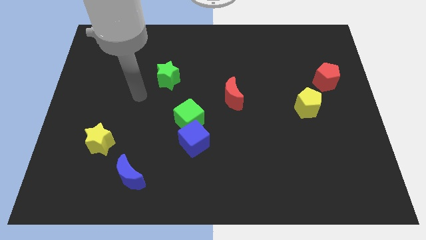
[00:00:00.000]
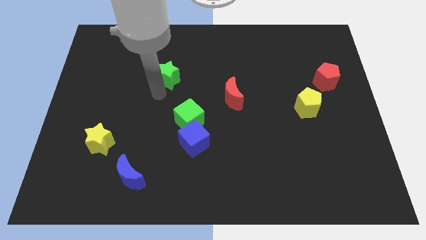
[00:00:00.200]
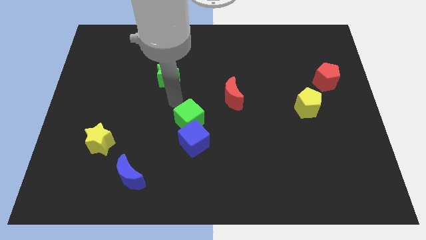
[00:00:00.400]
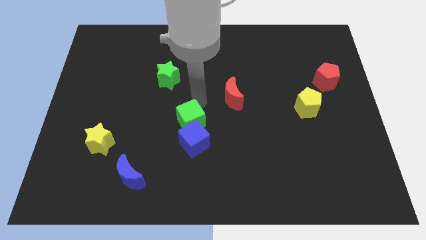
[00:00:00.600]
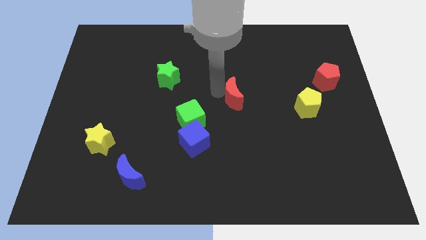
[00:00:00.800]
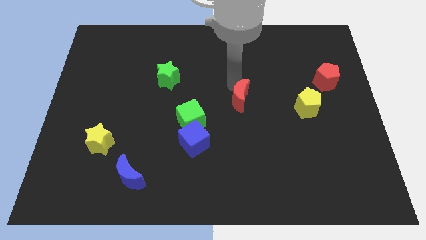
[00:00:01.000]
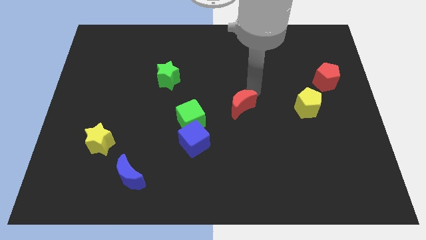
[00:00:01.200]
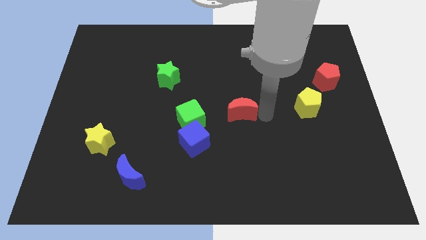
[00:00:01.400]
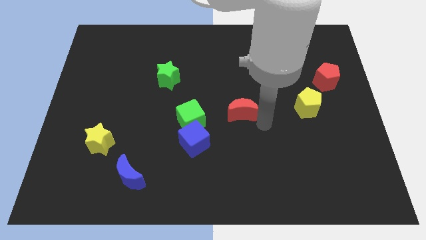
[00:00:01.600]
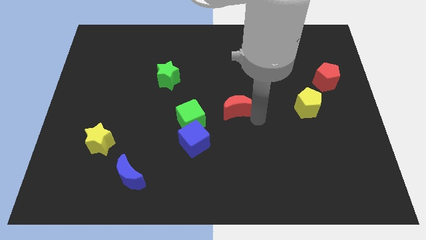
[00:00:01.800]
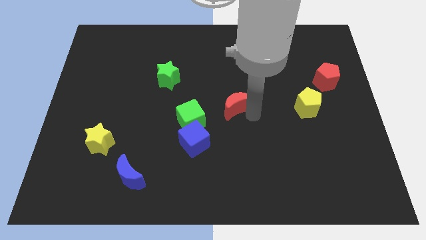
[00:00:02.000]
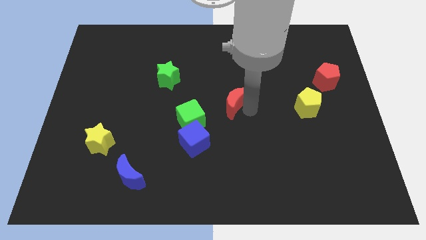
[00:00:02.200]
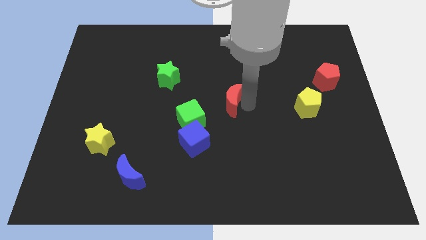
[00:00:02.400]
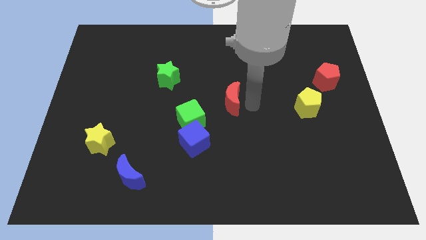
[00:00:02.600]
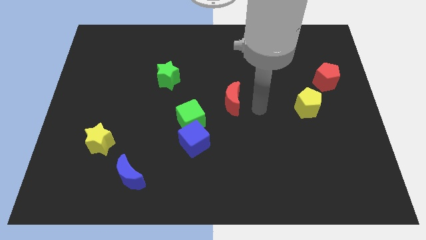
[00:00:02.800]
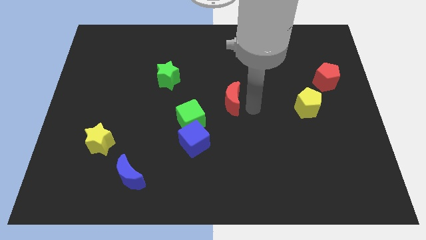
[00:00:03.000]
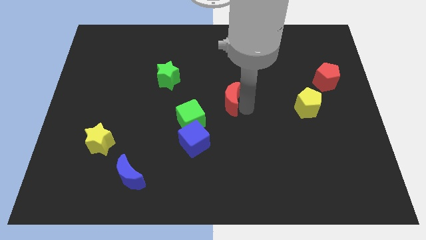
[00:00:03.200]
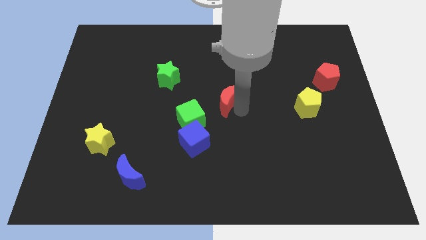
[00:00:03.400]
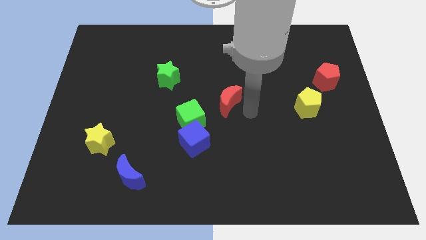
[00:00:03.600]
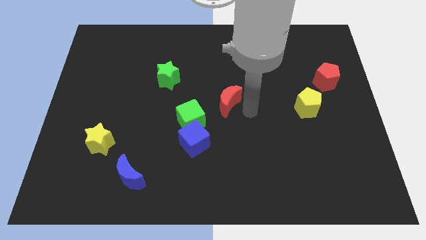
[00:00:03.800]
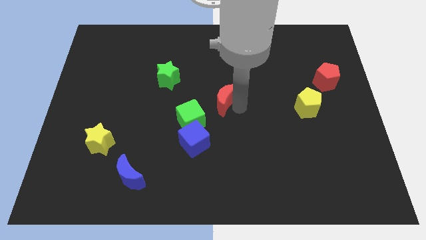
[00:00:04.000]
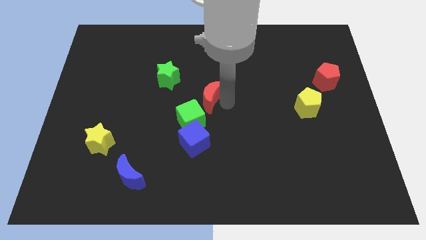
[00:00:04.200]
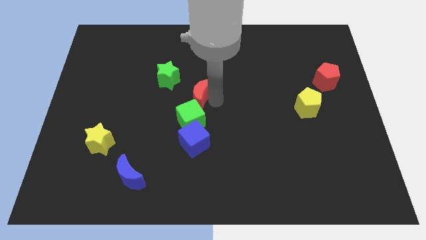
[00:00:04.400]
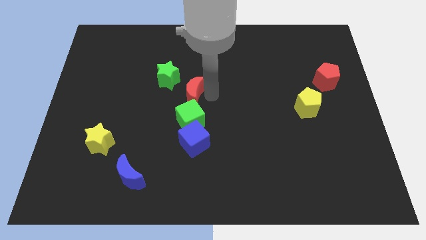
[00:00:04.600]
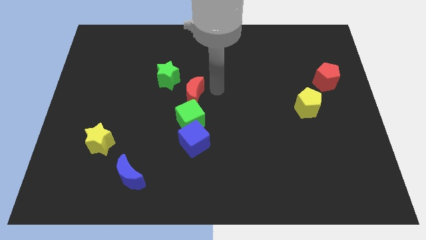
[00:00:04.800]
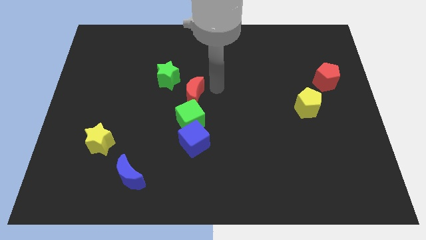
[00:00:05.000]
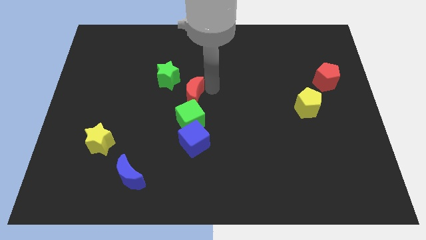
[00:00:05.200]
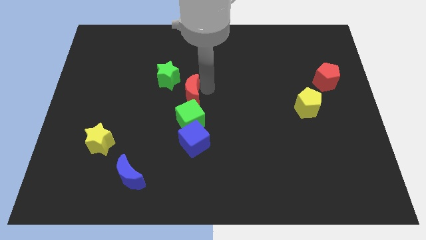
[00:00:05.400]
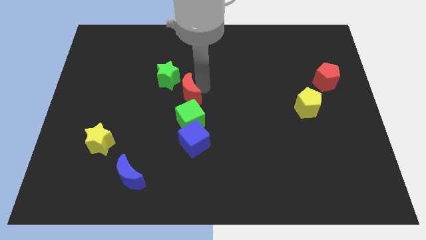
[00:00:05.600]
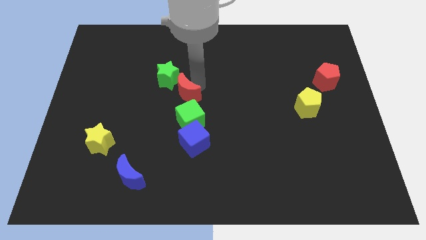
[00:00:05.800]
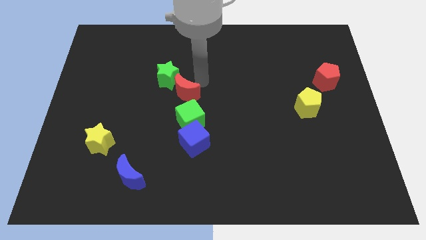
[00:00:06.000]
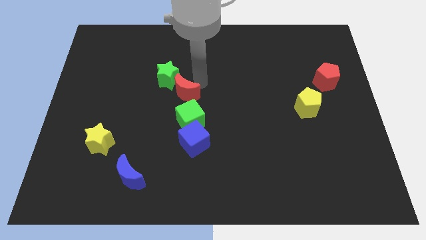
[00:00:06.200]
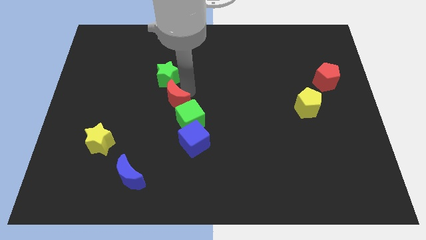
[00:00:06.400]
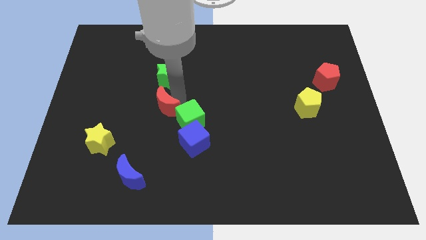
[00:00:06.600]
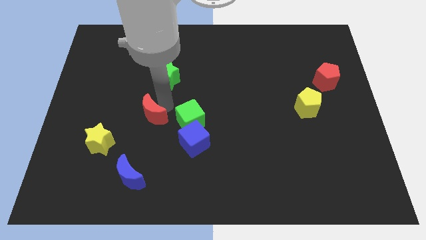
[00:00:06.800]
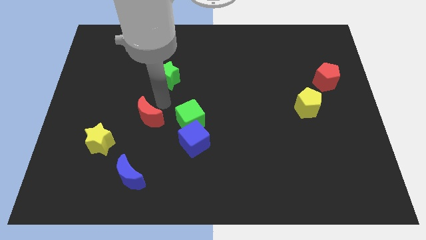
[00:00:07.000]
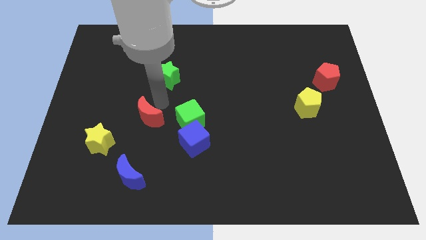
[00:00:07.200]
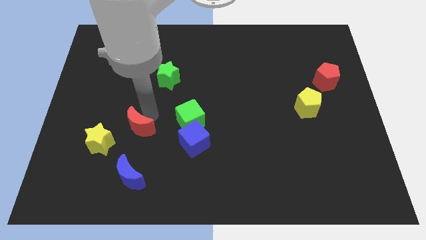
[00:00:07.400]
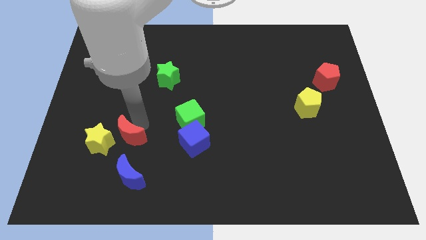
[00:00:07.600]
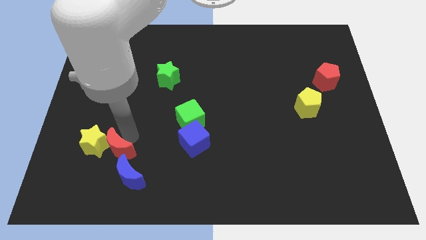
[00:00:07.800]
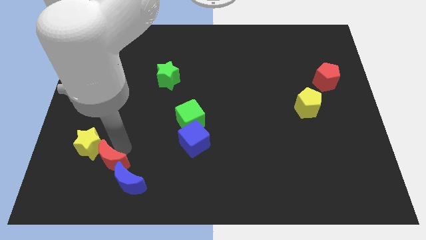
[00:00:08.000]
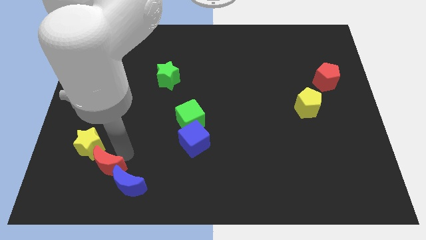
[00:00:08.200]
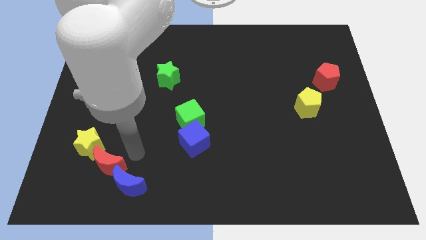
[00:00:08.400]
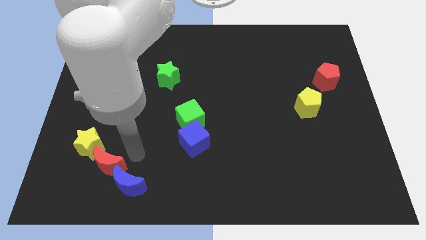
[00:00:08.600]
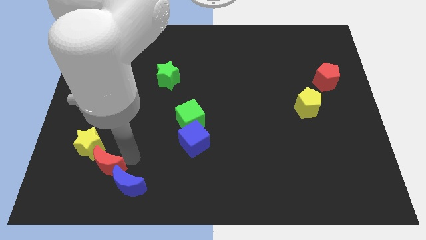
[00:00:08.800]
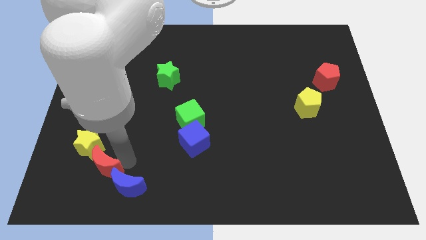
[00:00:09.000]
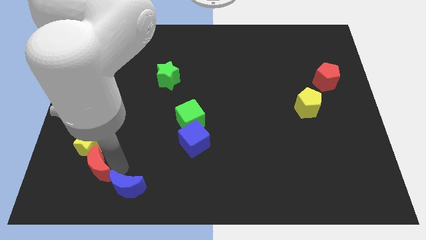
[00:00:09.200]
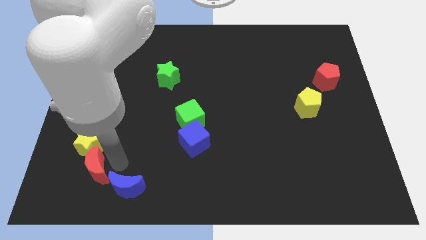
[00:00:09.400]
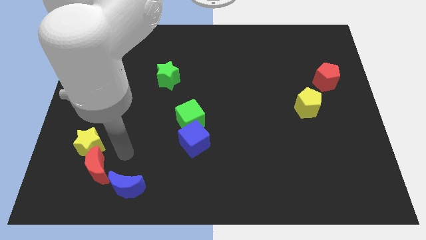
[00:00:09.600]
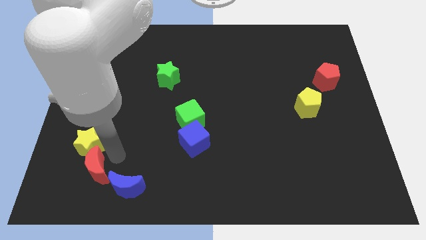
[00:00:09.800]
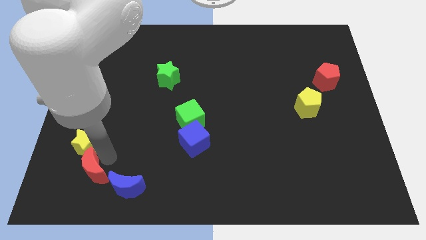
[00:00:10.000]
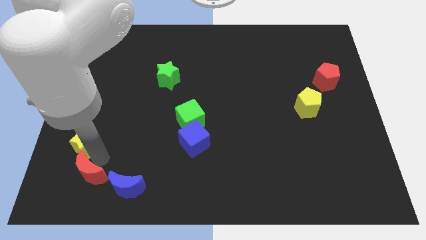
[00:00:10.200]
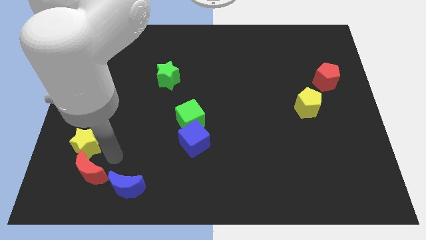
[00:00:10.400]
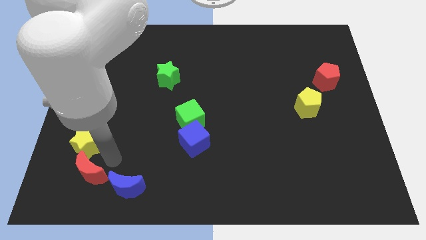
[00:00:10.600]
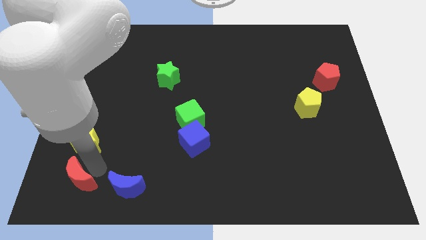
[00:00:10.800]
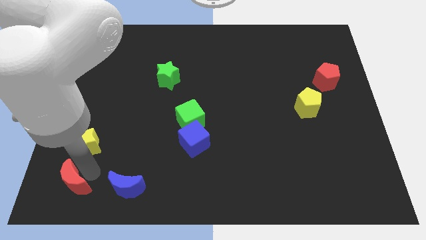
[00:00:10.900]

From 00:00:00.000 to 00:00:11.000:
put the red moon to the bottom left of the board

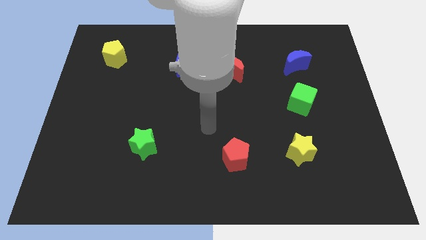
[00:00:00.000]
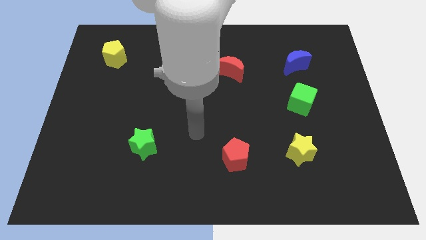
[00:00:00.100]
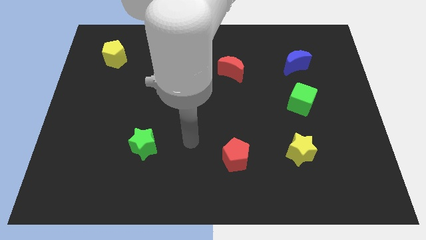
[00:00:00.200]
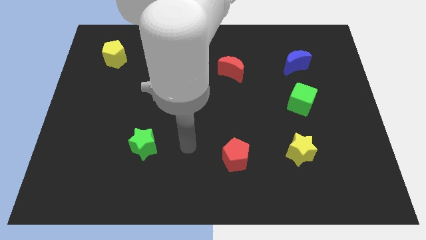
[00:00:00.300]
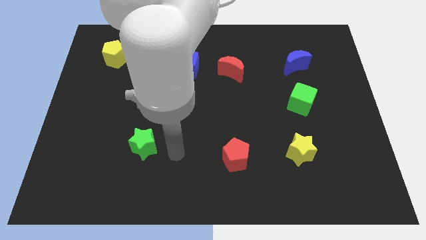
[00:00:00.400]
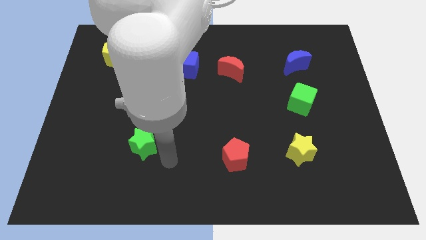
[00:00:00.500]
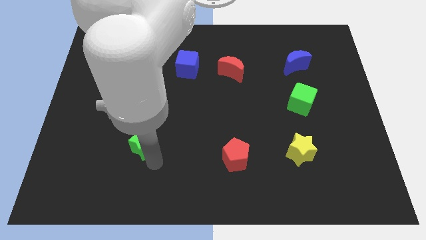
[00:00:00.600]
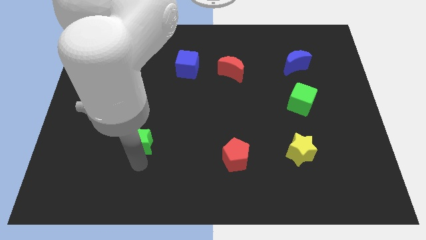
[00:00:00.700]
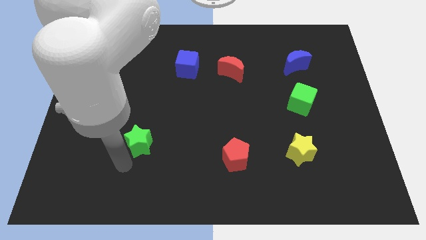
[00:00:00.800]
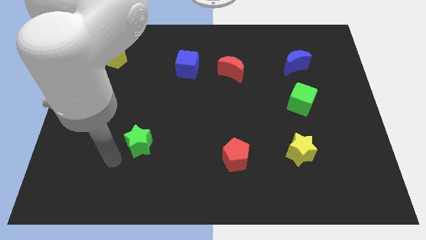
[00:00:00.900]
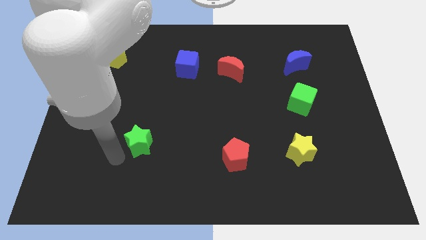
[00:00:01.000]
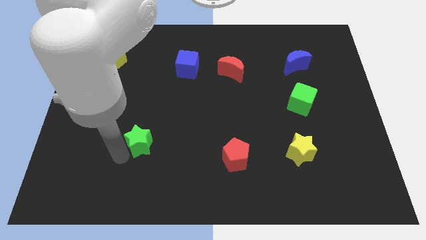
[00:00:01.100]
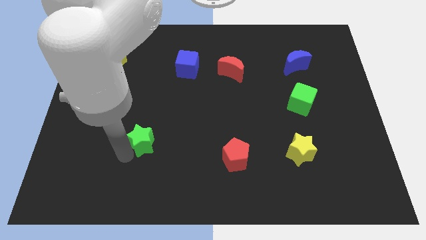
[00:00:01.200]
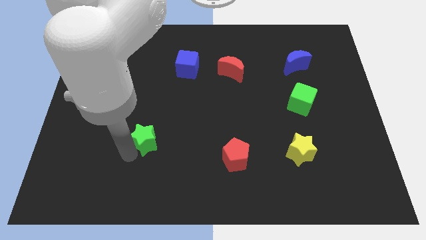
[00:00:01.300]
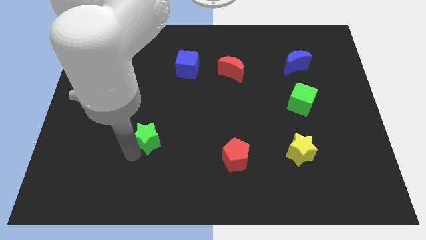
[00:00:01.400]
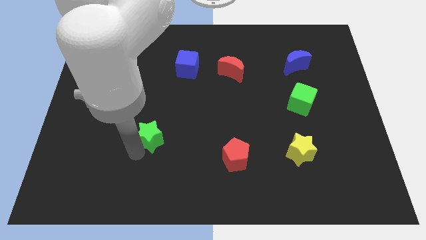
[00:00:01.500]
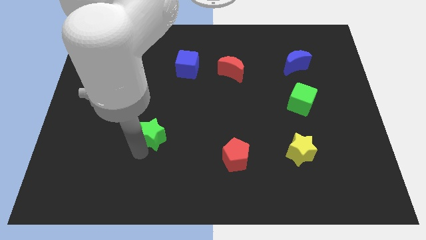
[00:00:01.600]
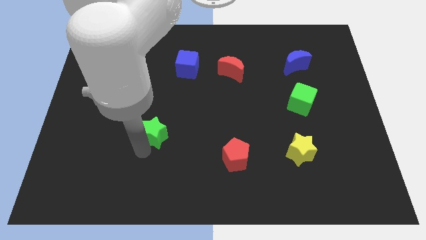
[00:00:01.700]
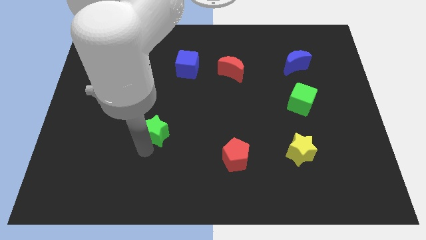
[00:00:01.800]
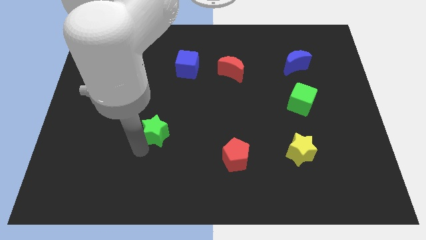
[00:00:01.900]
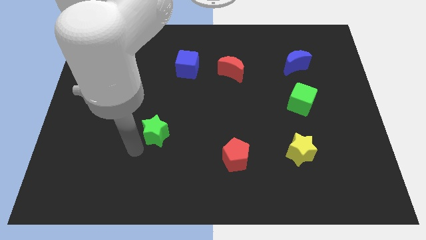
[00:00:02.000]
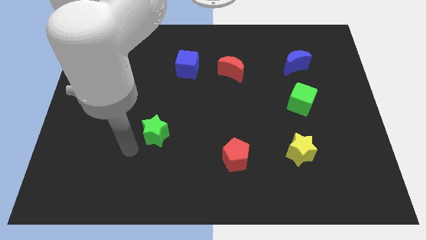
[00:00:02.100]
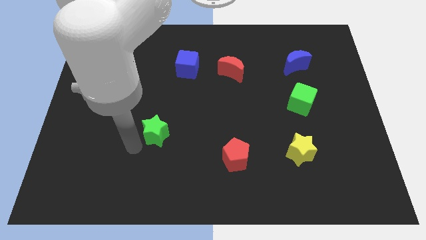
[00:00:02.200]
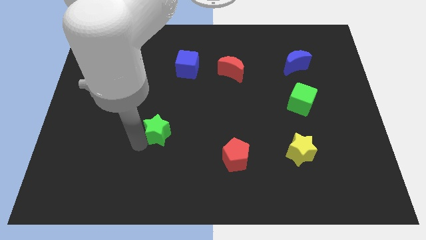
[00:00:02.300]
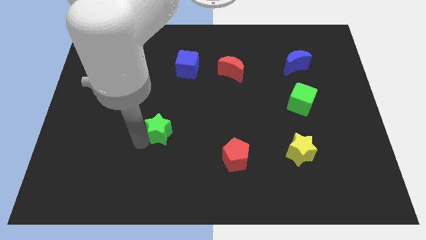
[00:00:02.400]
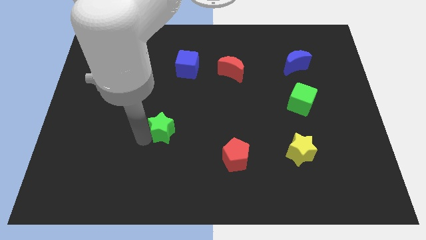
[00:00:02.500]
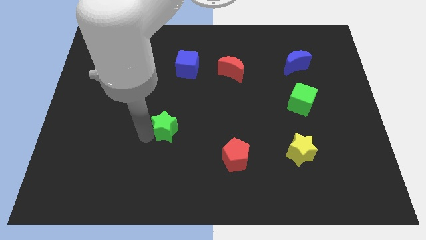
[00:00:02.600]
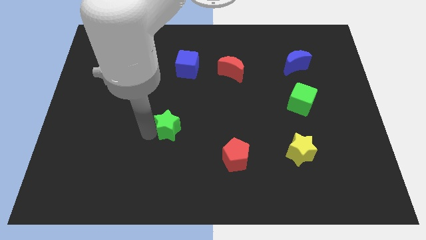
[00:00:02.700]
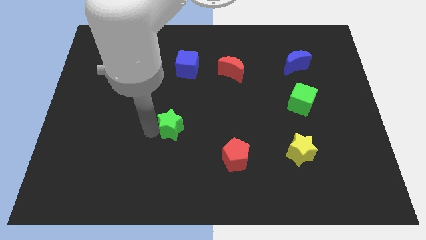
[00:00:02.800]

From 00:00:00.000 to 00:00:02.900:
move the green star to the center
